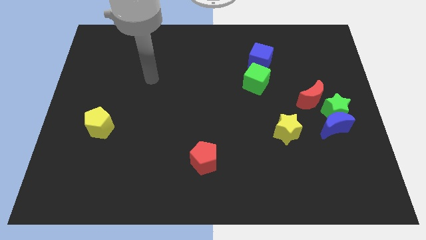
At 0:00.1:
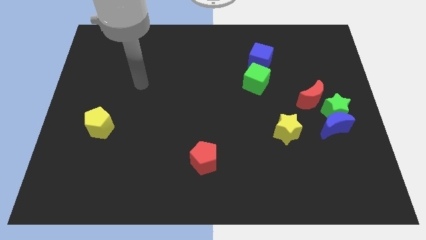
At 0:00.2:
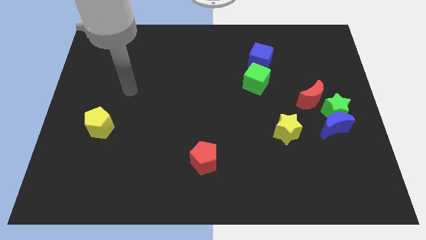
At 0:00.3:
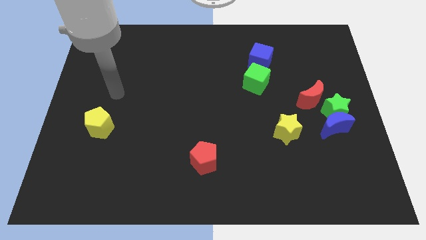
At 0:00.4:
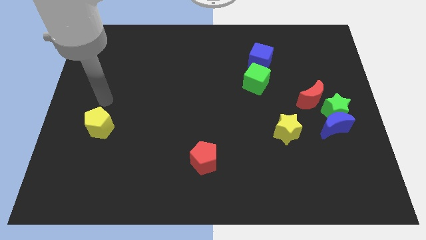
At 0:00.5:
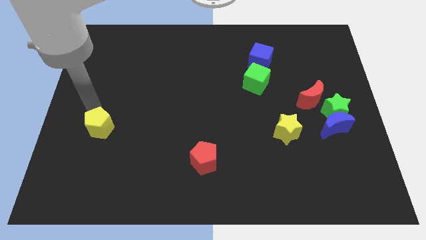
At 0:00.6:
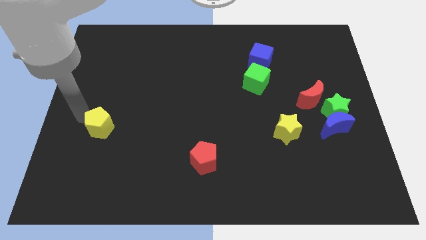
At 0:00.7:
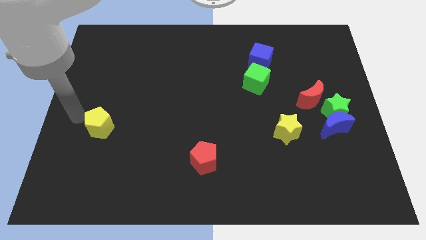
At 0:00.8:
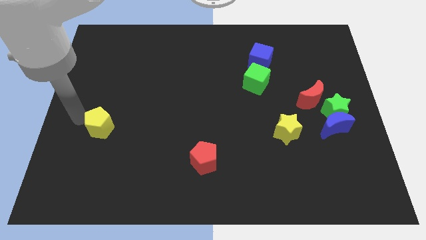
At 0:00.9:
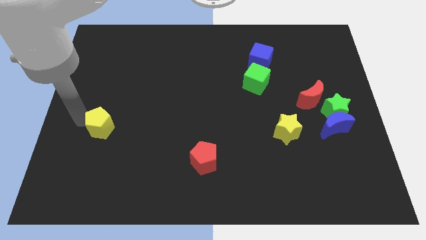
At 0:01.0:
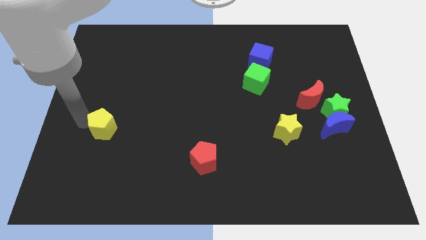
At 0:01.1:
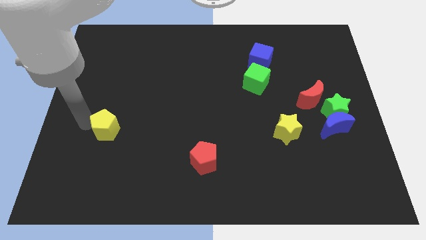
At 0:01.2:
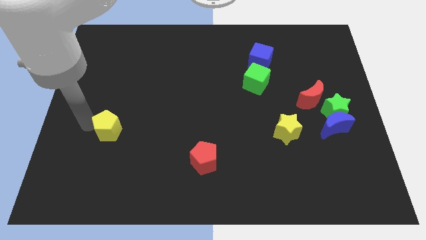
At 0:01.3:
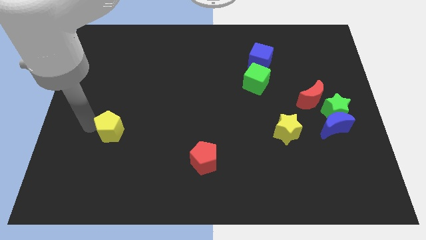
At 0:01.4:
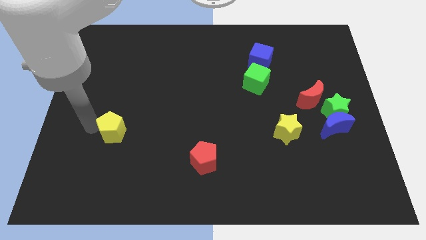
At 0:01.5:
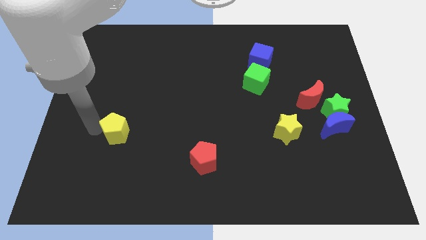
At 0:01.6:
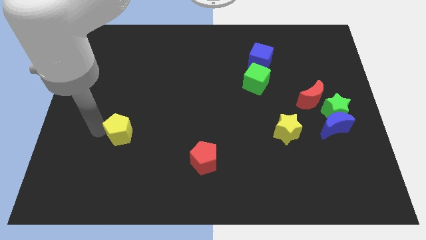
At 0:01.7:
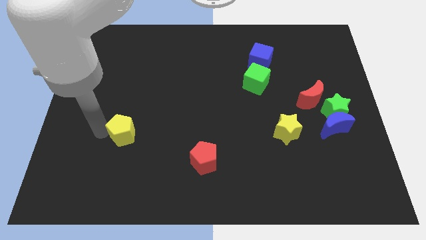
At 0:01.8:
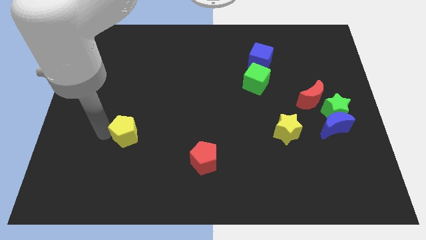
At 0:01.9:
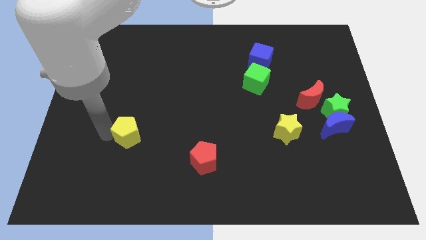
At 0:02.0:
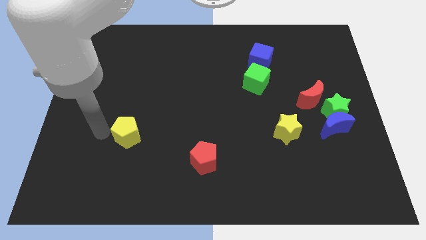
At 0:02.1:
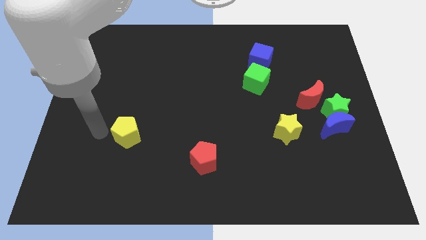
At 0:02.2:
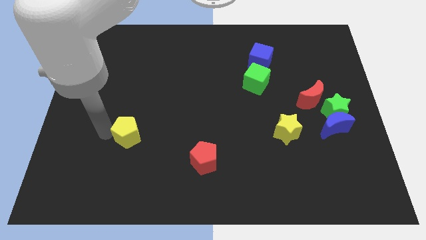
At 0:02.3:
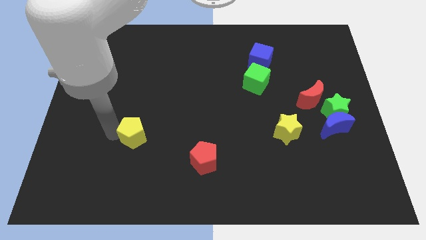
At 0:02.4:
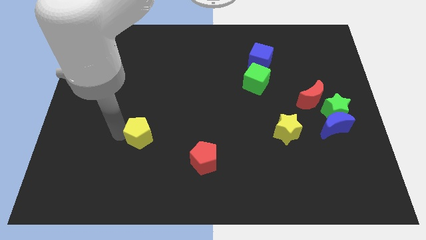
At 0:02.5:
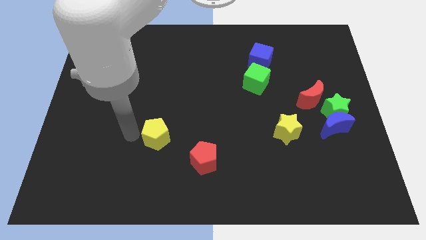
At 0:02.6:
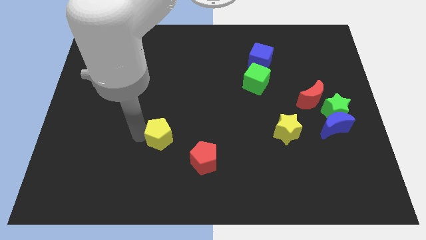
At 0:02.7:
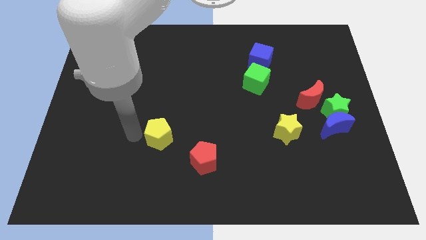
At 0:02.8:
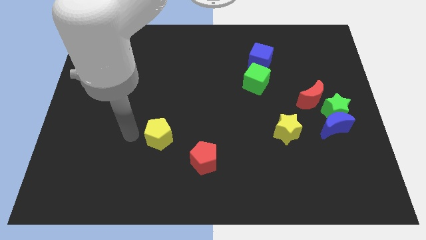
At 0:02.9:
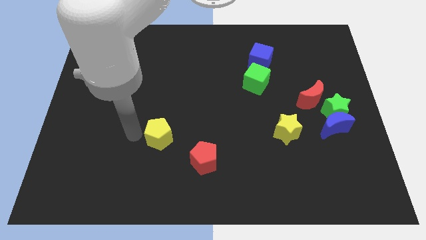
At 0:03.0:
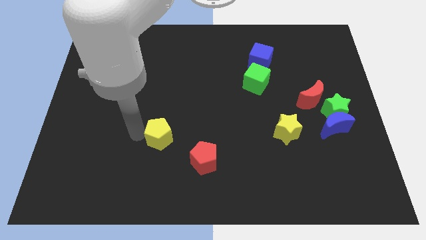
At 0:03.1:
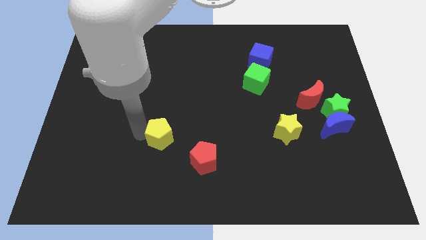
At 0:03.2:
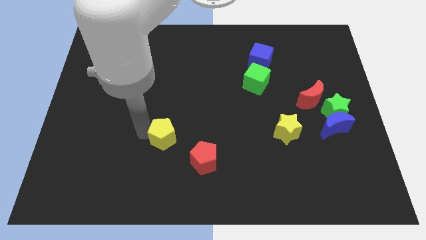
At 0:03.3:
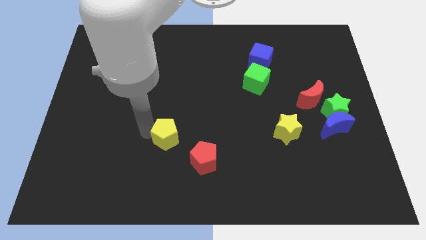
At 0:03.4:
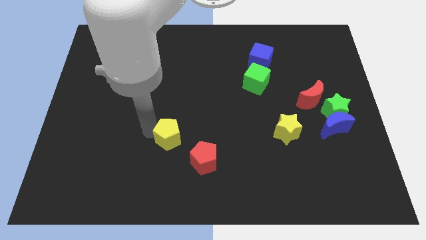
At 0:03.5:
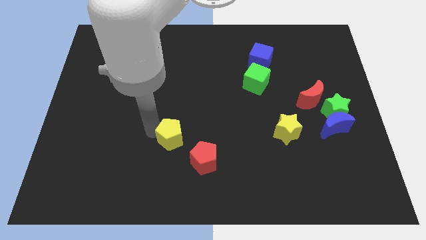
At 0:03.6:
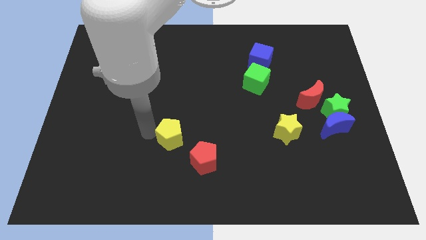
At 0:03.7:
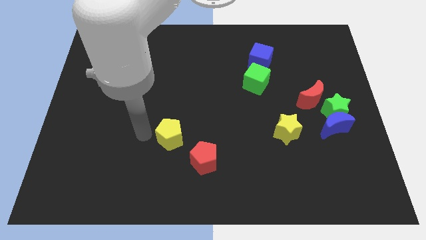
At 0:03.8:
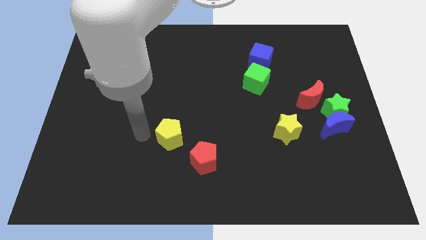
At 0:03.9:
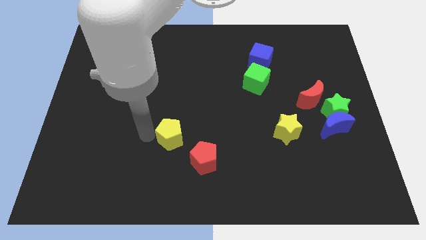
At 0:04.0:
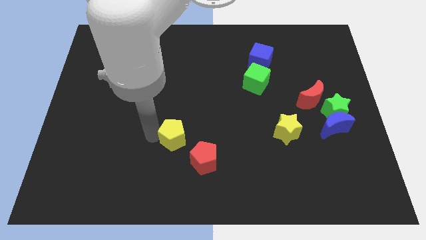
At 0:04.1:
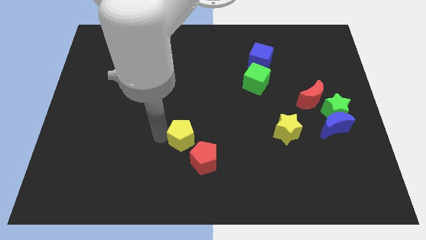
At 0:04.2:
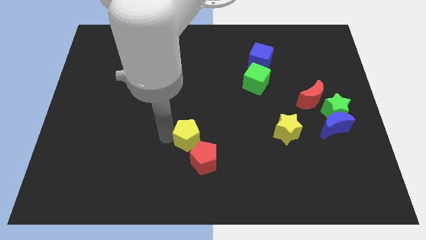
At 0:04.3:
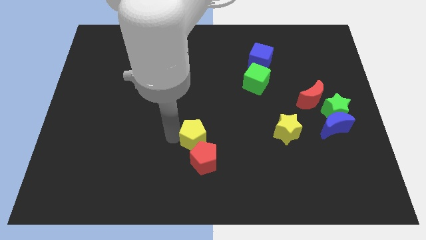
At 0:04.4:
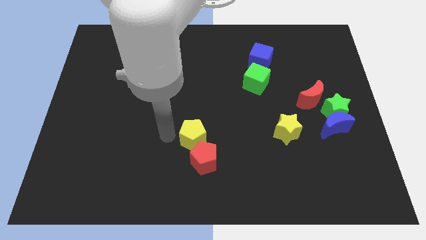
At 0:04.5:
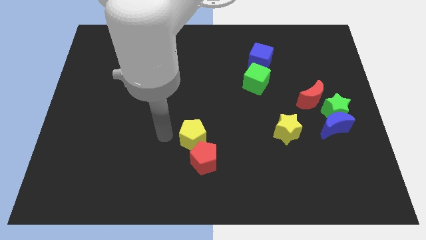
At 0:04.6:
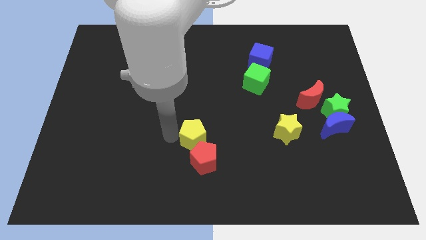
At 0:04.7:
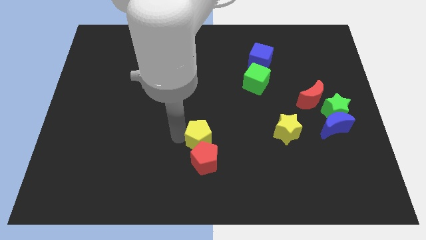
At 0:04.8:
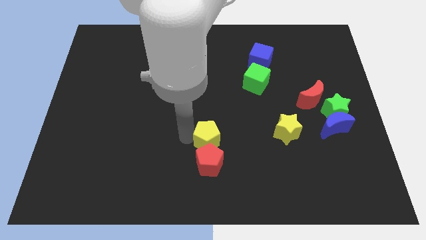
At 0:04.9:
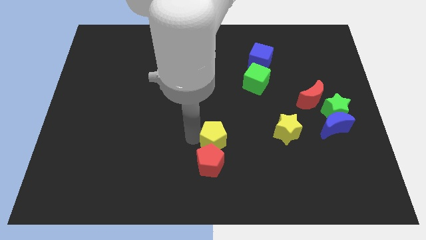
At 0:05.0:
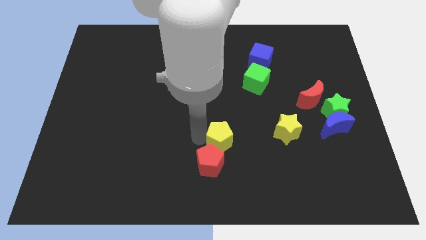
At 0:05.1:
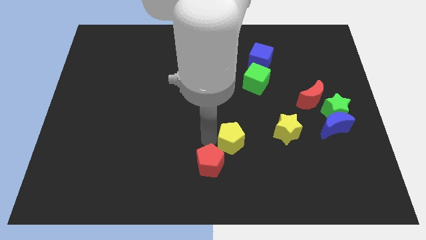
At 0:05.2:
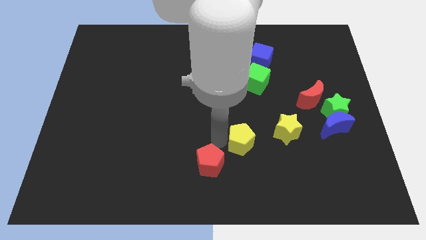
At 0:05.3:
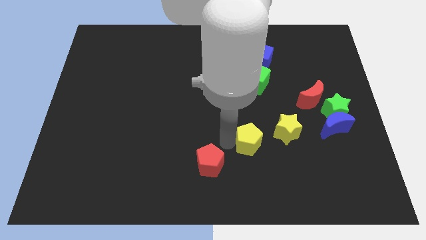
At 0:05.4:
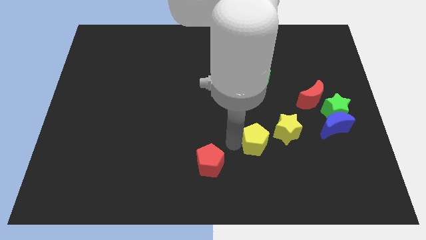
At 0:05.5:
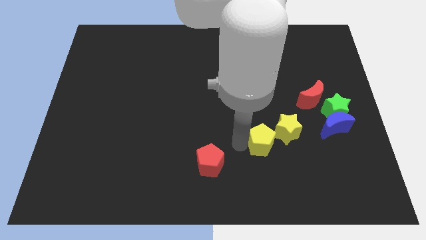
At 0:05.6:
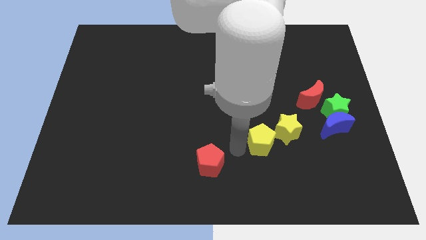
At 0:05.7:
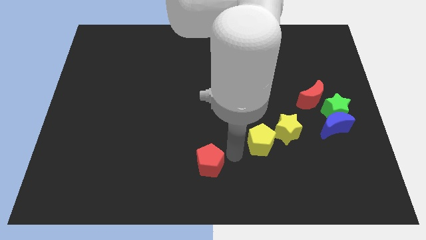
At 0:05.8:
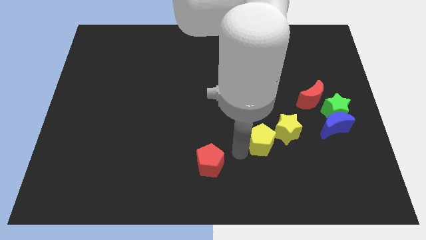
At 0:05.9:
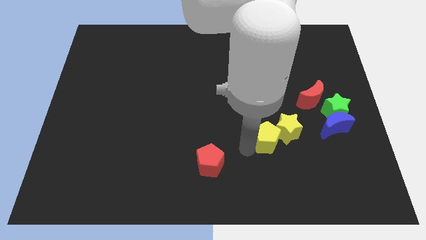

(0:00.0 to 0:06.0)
move the yellow pentagon to the yellow star

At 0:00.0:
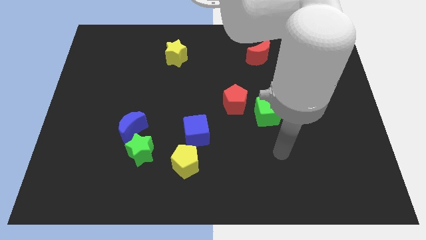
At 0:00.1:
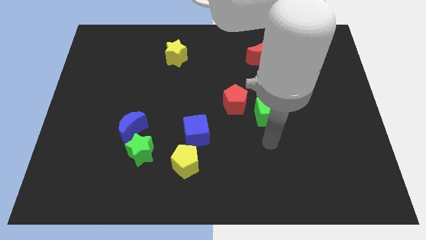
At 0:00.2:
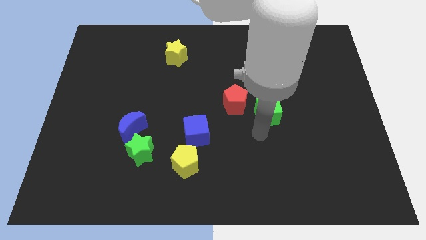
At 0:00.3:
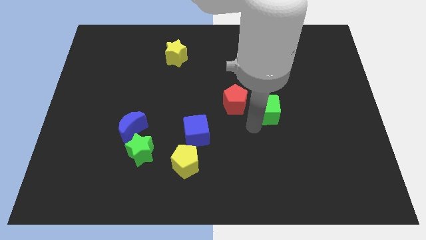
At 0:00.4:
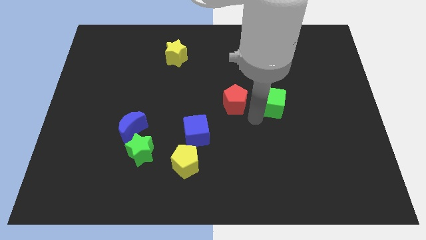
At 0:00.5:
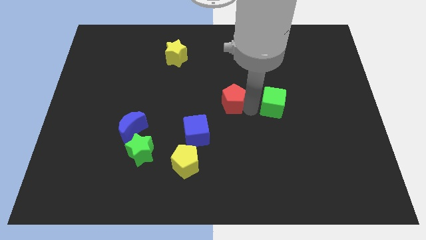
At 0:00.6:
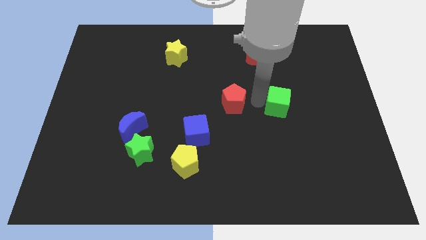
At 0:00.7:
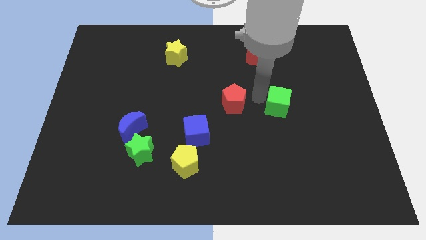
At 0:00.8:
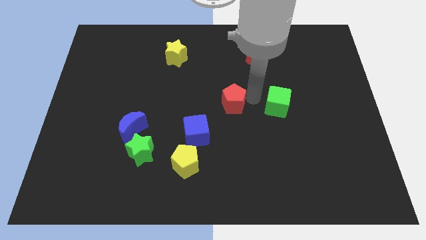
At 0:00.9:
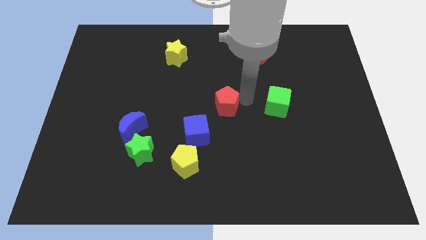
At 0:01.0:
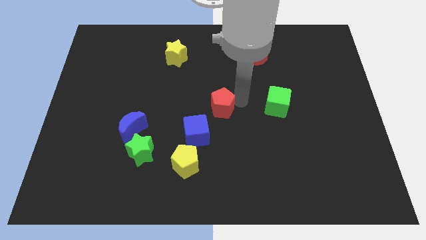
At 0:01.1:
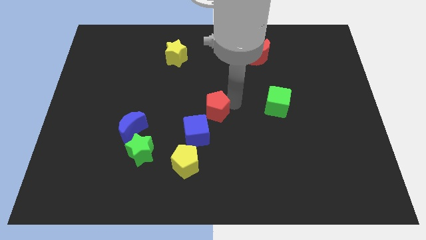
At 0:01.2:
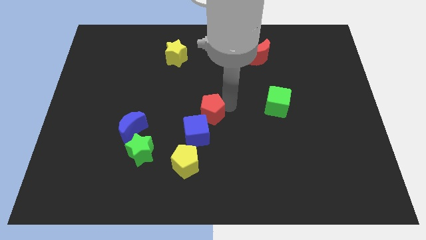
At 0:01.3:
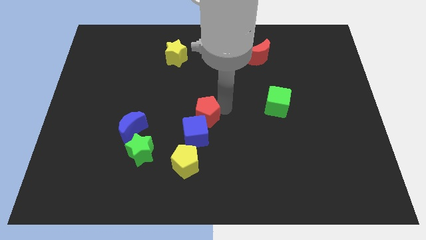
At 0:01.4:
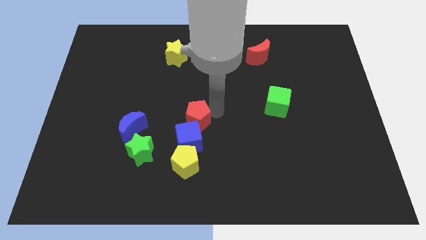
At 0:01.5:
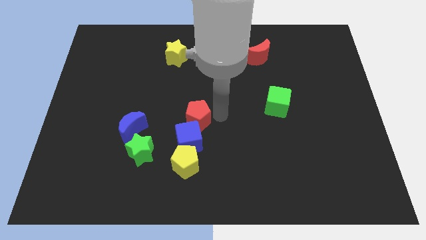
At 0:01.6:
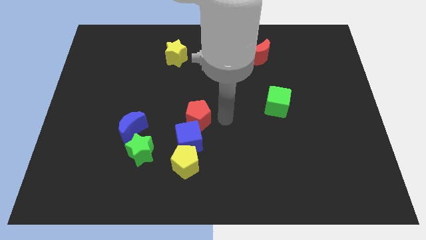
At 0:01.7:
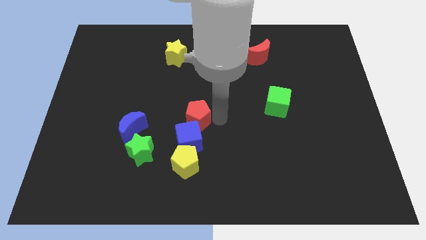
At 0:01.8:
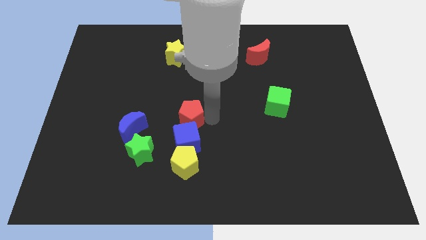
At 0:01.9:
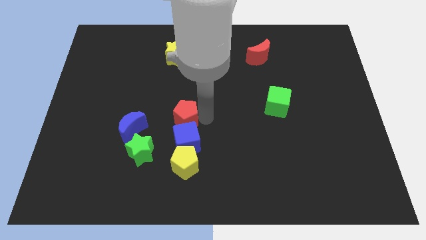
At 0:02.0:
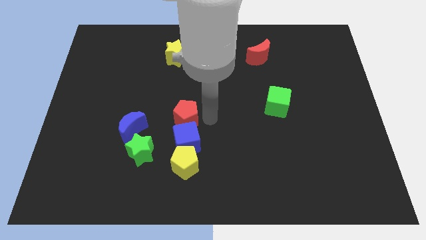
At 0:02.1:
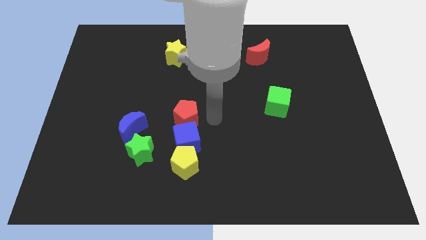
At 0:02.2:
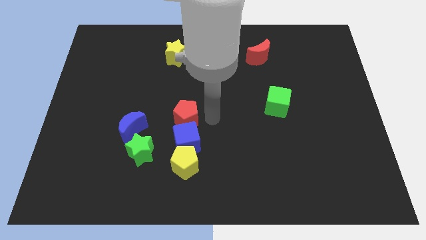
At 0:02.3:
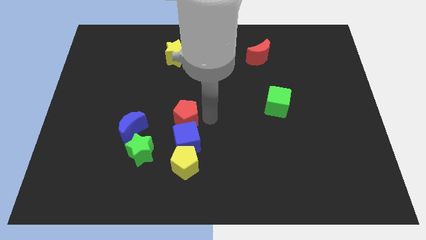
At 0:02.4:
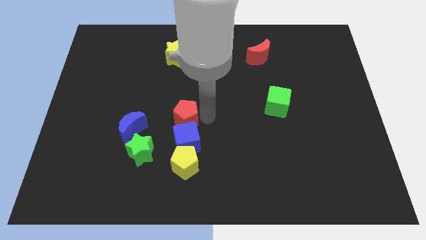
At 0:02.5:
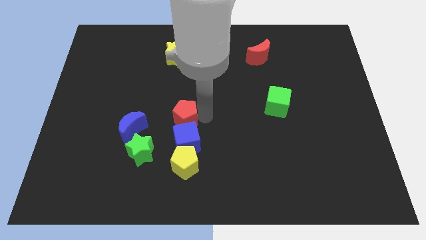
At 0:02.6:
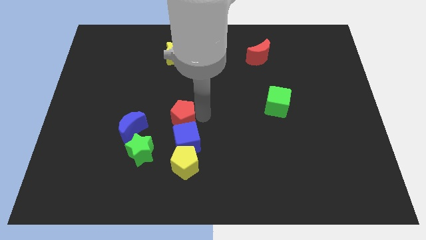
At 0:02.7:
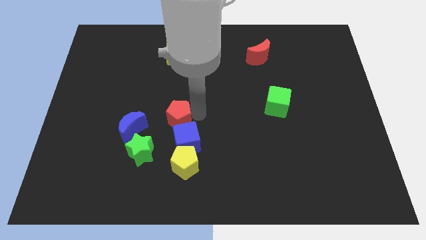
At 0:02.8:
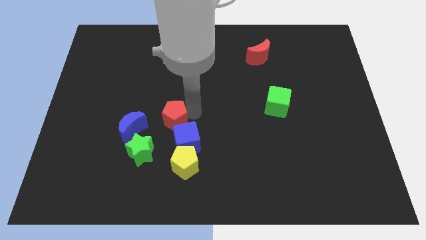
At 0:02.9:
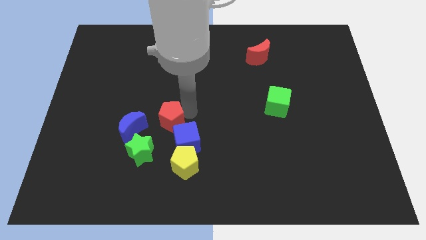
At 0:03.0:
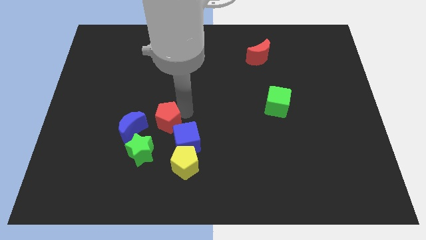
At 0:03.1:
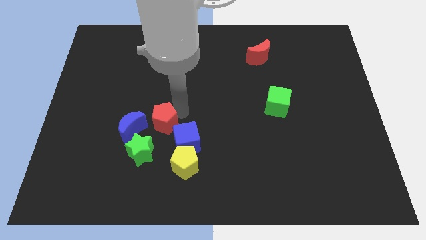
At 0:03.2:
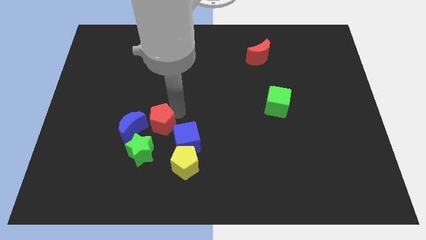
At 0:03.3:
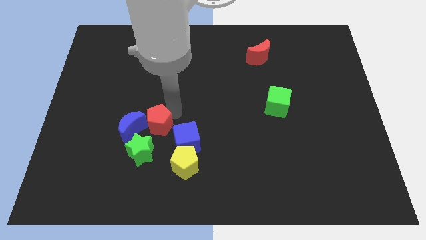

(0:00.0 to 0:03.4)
slide the red pentagon to the blue moon
